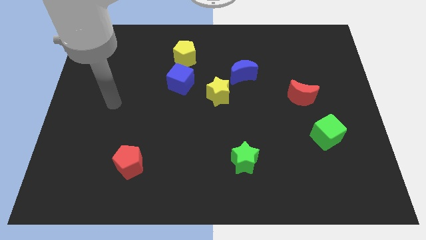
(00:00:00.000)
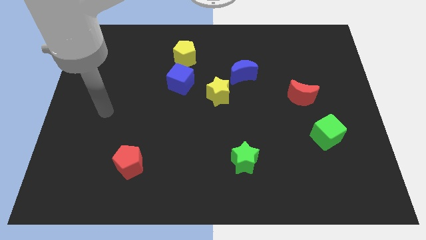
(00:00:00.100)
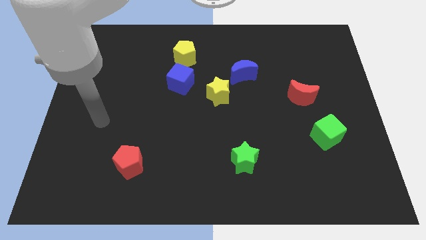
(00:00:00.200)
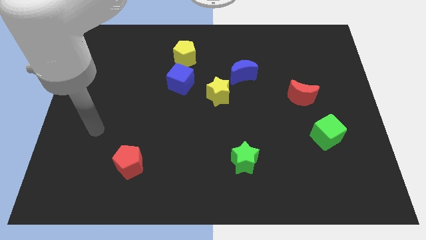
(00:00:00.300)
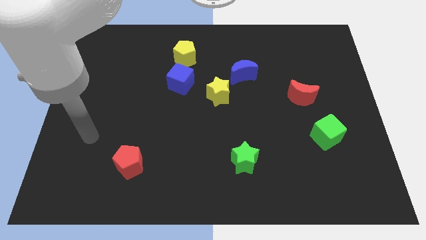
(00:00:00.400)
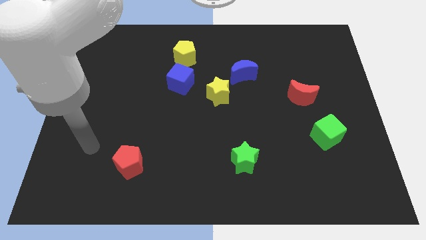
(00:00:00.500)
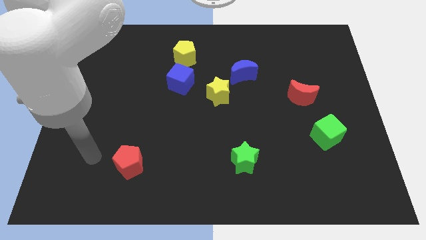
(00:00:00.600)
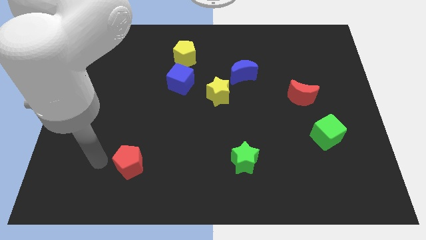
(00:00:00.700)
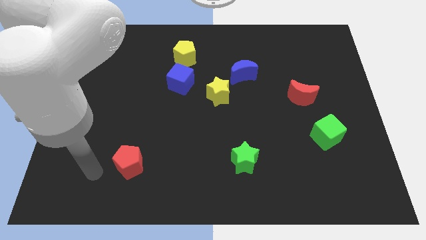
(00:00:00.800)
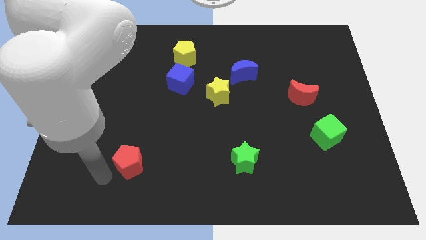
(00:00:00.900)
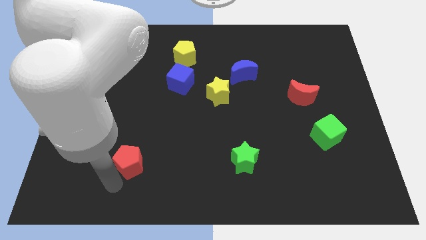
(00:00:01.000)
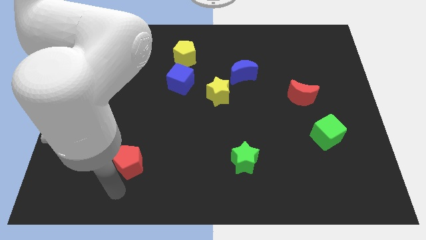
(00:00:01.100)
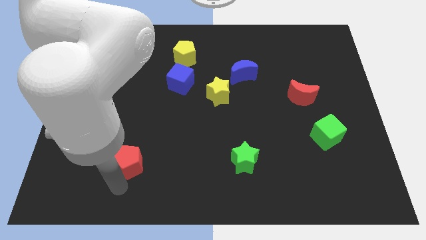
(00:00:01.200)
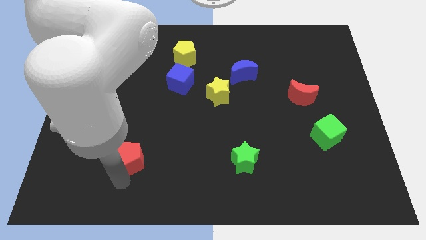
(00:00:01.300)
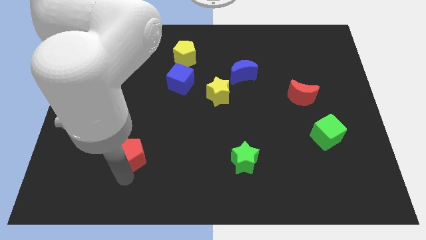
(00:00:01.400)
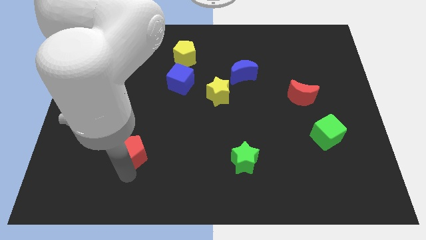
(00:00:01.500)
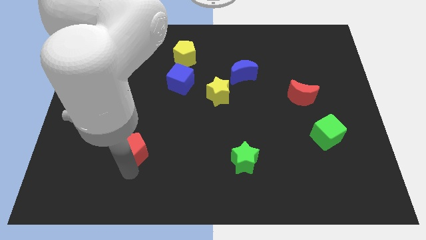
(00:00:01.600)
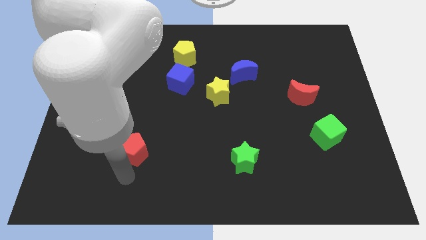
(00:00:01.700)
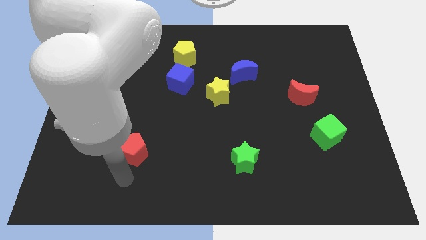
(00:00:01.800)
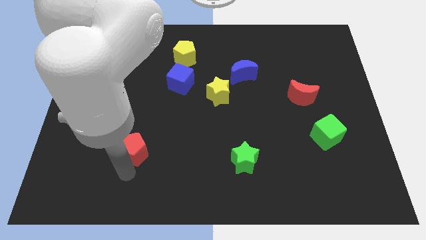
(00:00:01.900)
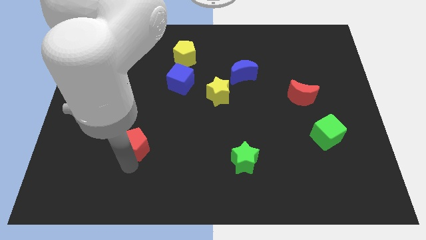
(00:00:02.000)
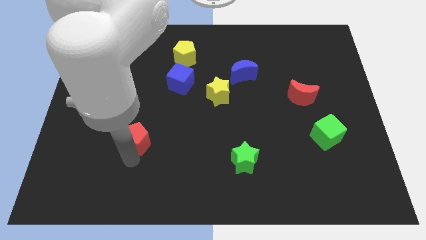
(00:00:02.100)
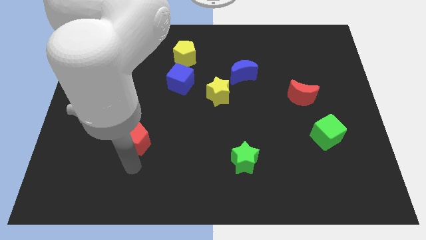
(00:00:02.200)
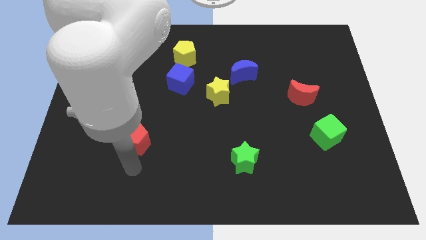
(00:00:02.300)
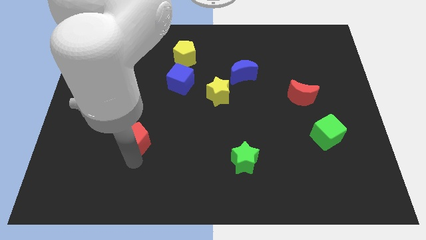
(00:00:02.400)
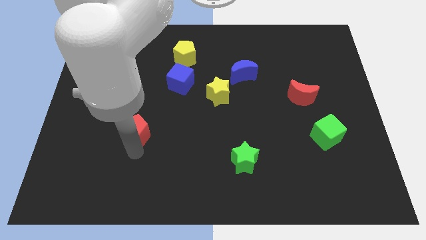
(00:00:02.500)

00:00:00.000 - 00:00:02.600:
slightly slide the red pentagon upwards

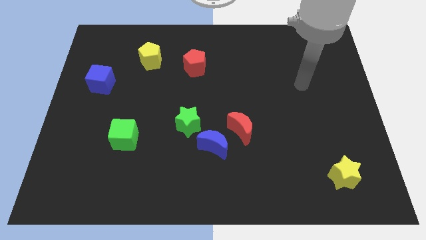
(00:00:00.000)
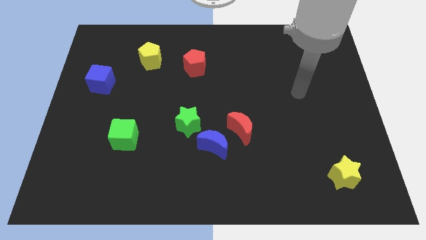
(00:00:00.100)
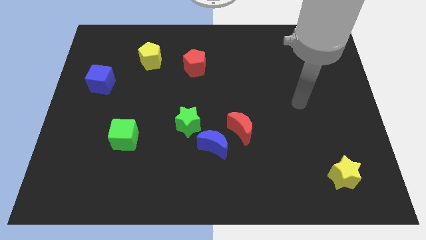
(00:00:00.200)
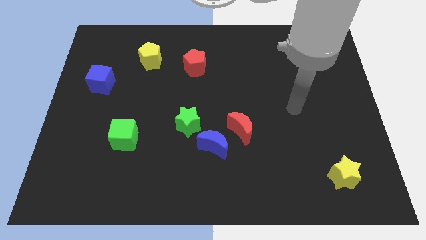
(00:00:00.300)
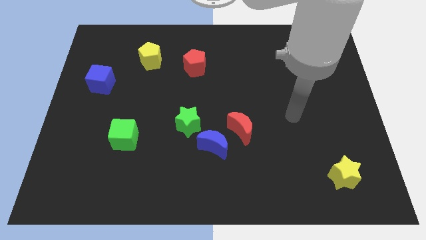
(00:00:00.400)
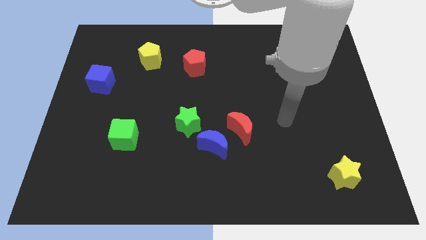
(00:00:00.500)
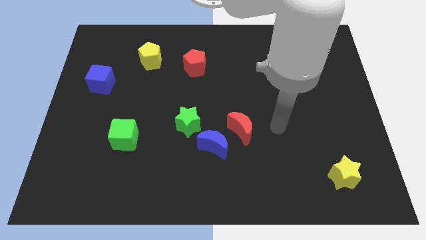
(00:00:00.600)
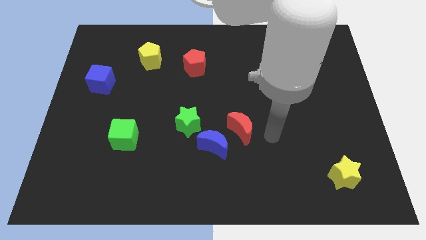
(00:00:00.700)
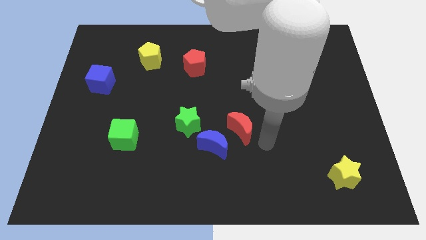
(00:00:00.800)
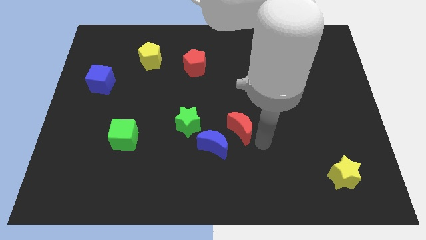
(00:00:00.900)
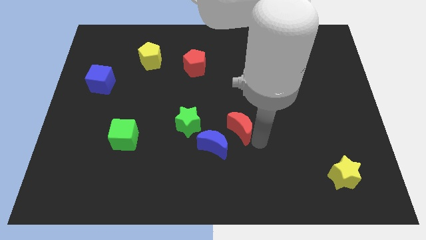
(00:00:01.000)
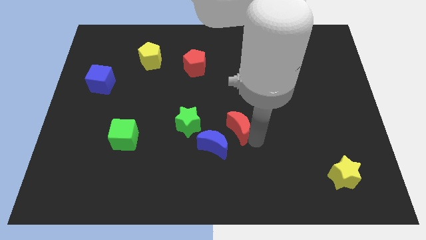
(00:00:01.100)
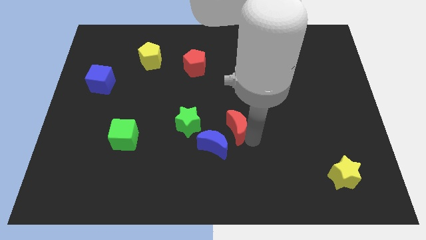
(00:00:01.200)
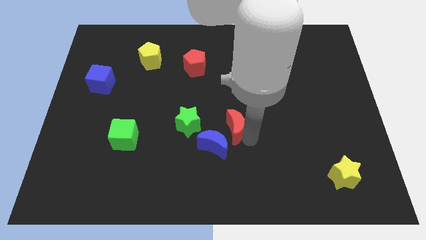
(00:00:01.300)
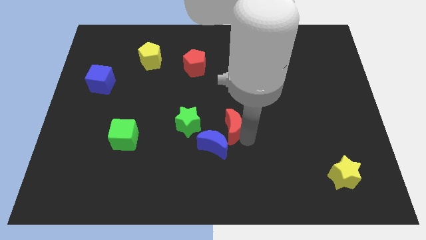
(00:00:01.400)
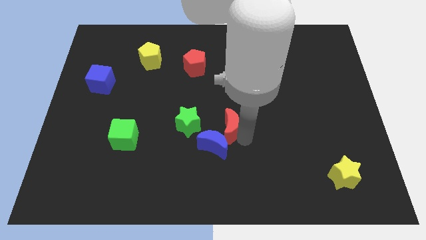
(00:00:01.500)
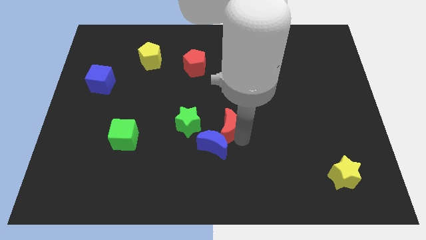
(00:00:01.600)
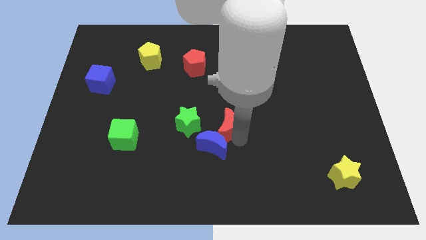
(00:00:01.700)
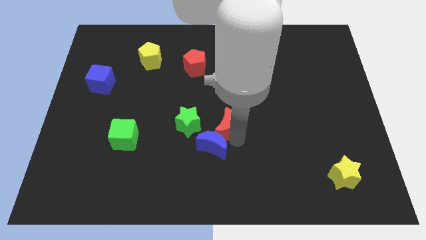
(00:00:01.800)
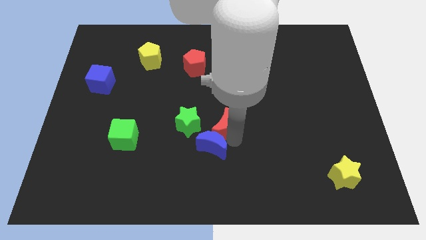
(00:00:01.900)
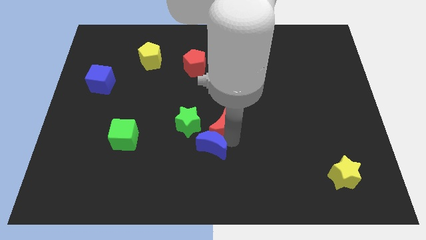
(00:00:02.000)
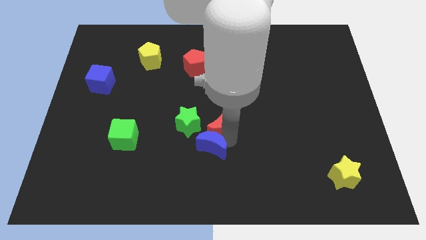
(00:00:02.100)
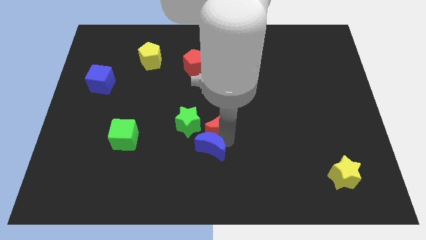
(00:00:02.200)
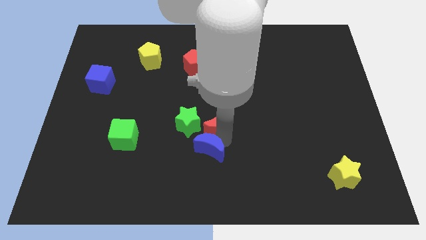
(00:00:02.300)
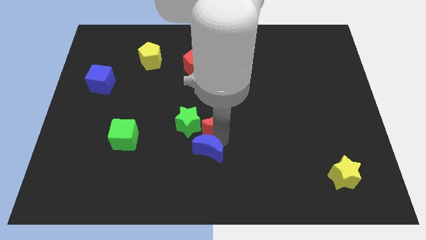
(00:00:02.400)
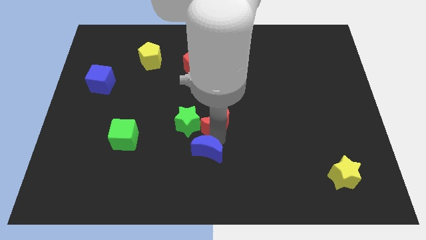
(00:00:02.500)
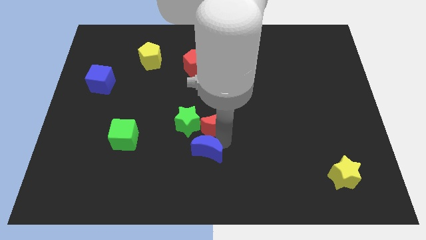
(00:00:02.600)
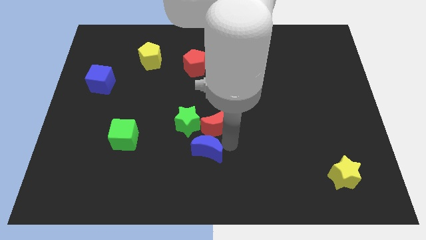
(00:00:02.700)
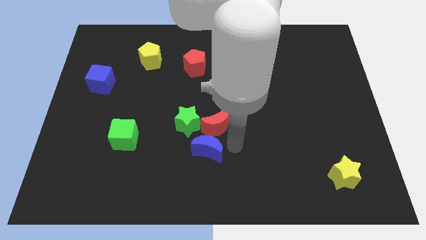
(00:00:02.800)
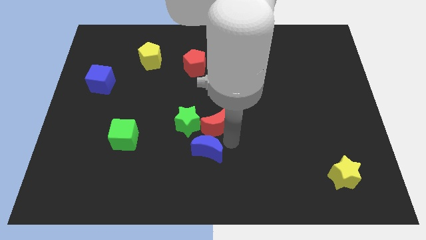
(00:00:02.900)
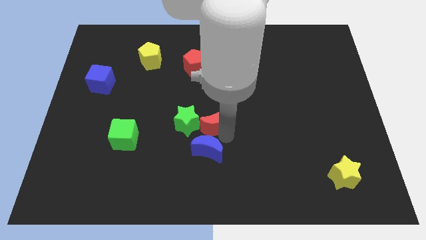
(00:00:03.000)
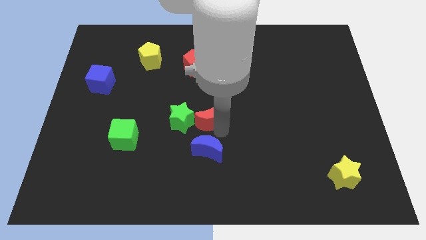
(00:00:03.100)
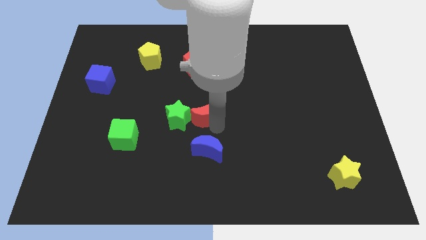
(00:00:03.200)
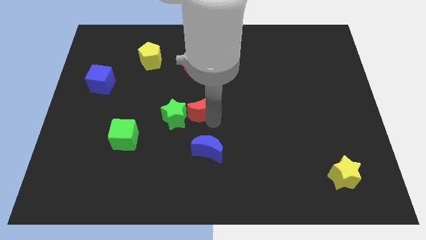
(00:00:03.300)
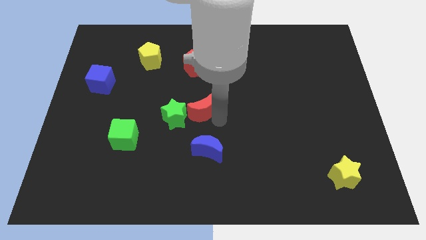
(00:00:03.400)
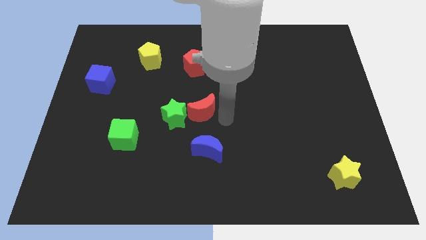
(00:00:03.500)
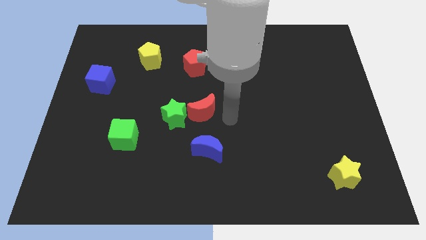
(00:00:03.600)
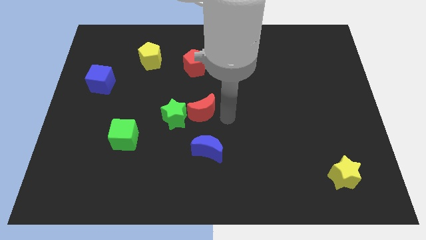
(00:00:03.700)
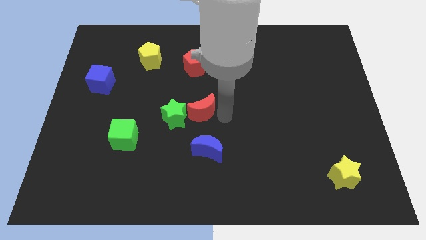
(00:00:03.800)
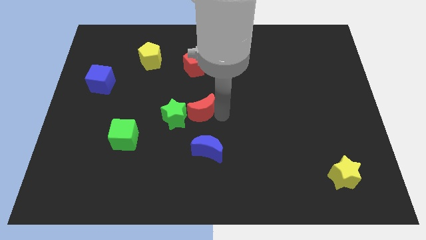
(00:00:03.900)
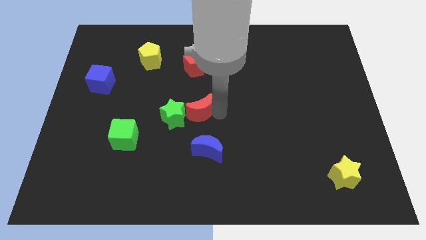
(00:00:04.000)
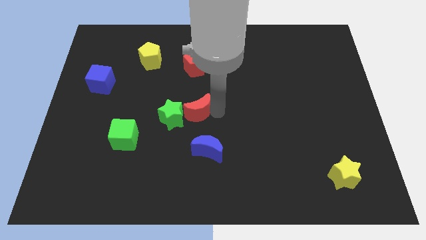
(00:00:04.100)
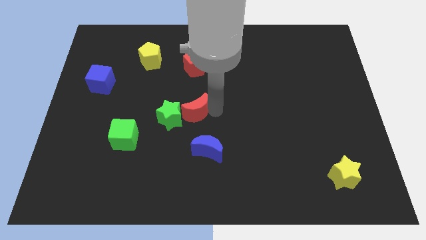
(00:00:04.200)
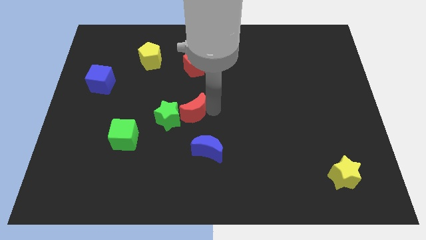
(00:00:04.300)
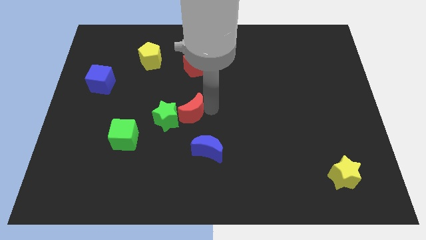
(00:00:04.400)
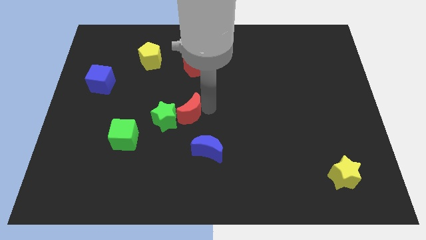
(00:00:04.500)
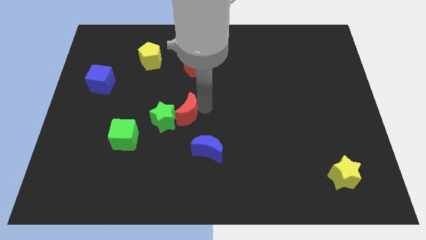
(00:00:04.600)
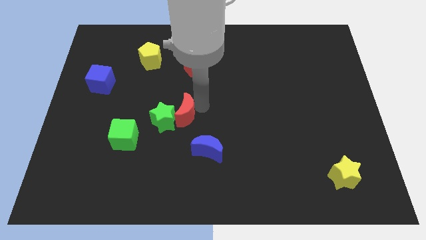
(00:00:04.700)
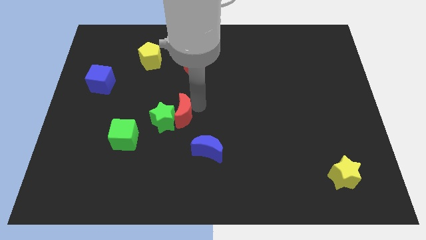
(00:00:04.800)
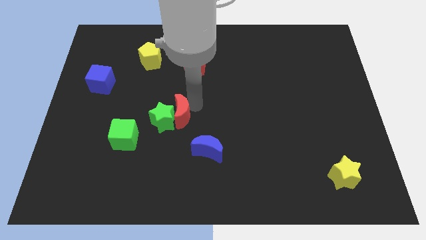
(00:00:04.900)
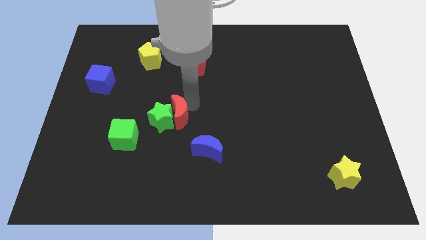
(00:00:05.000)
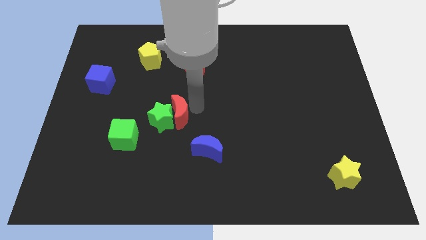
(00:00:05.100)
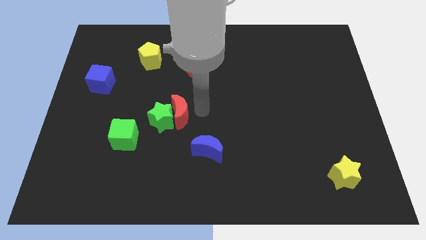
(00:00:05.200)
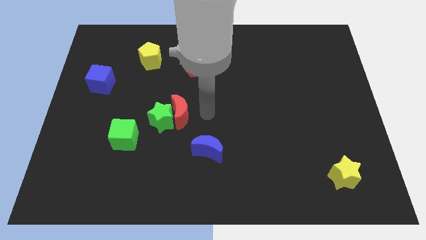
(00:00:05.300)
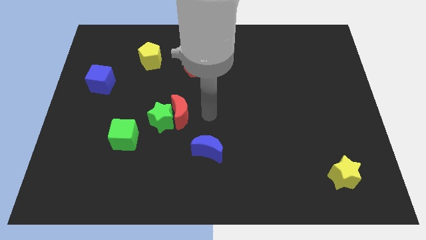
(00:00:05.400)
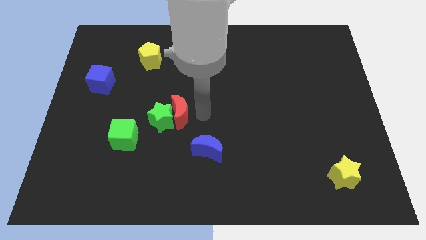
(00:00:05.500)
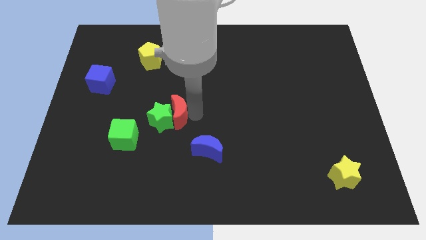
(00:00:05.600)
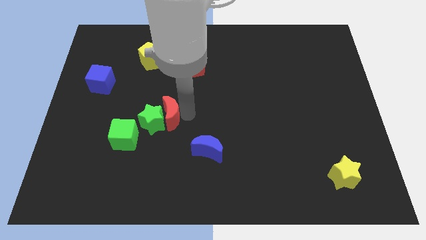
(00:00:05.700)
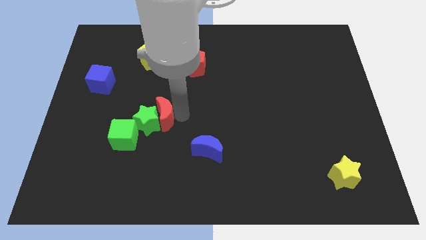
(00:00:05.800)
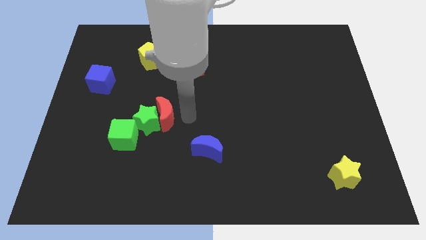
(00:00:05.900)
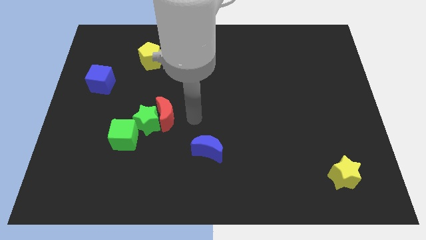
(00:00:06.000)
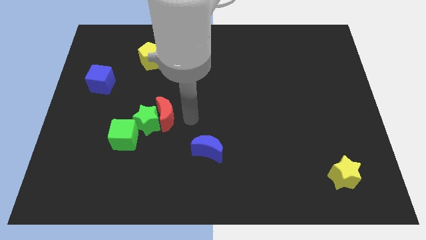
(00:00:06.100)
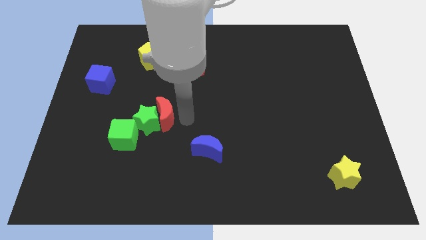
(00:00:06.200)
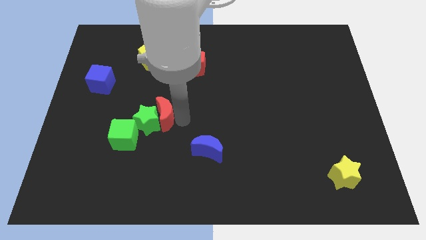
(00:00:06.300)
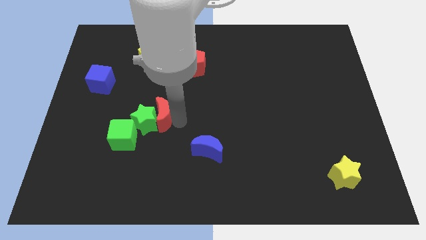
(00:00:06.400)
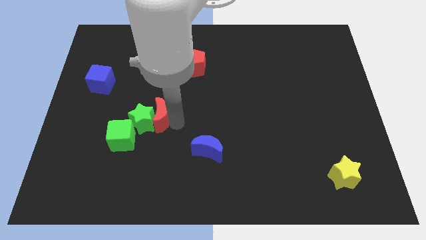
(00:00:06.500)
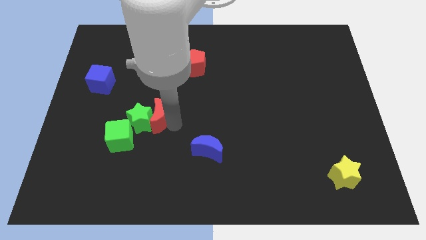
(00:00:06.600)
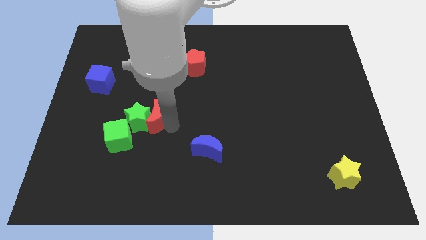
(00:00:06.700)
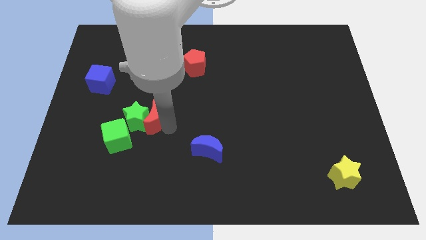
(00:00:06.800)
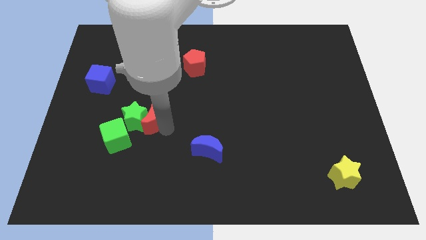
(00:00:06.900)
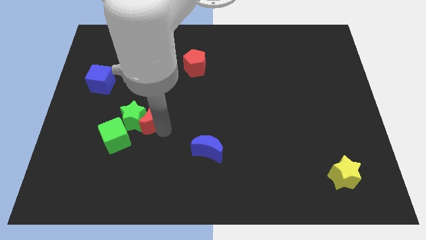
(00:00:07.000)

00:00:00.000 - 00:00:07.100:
slide the red moon left
